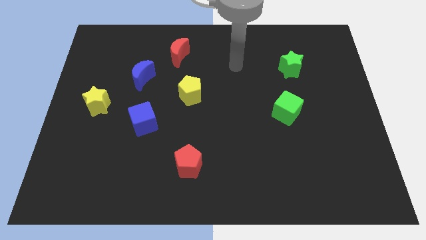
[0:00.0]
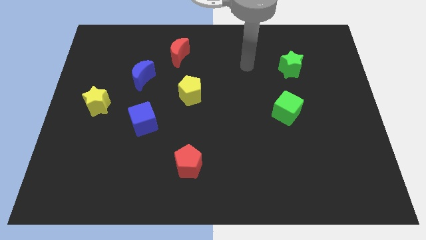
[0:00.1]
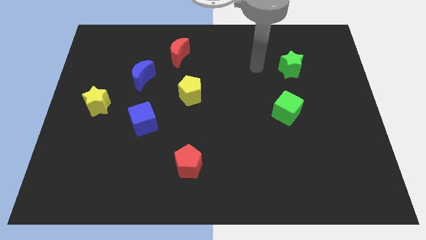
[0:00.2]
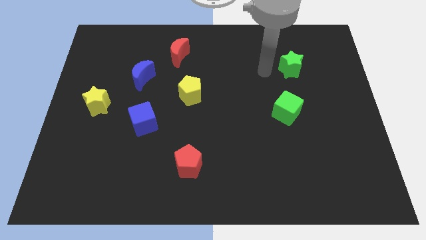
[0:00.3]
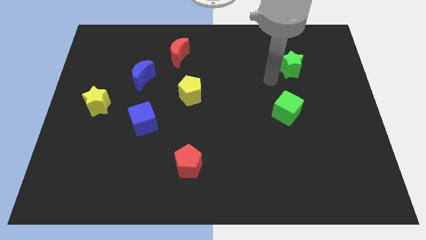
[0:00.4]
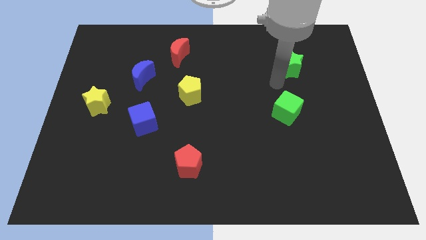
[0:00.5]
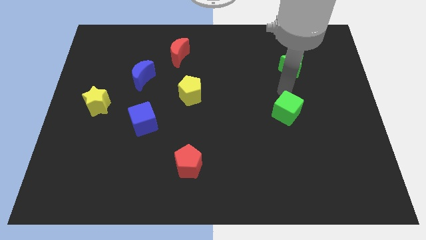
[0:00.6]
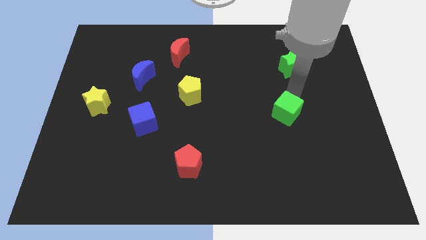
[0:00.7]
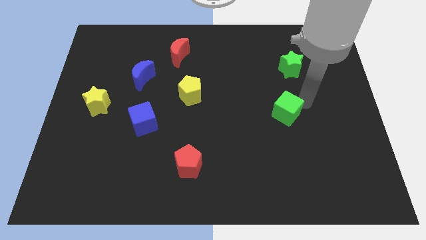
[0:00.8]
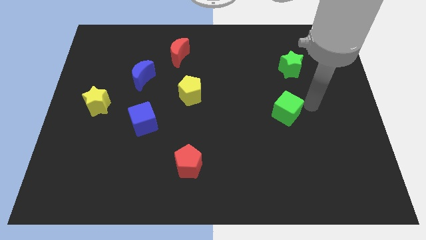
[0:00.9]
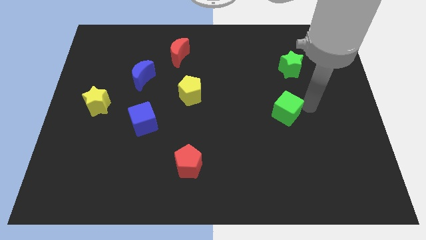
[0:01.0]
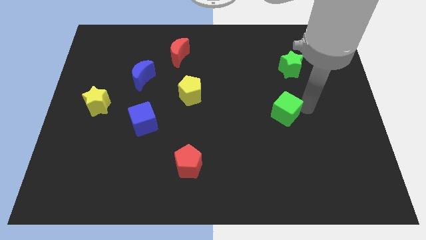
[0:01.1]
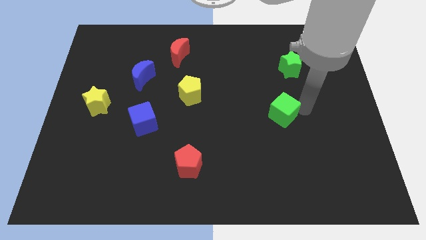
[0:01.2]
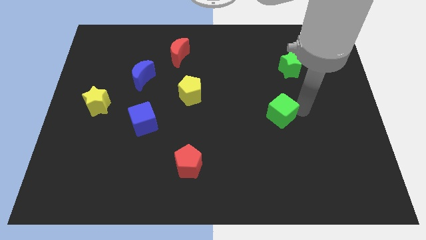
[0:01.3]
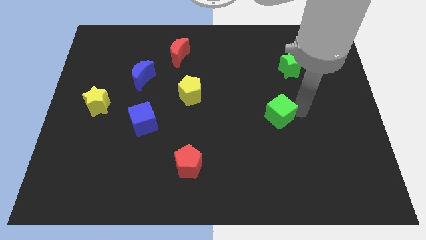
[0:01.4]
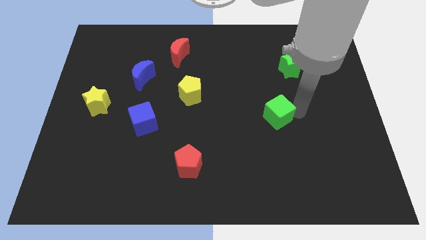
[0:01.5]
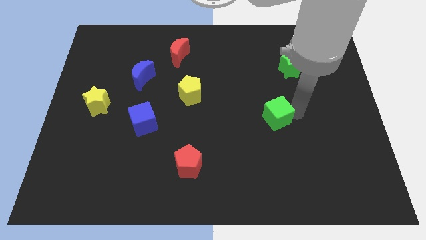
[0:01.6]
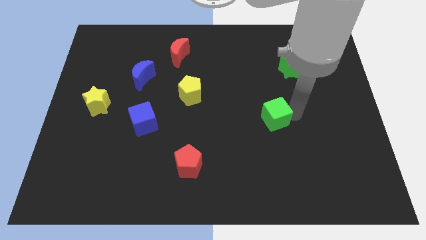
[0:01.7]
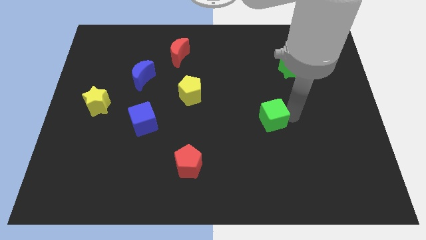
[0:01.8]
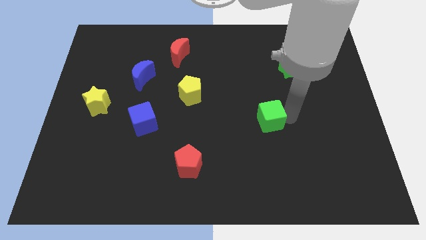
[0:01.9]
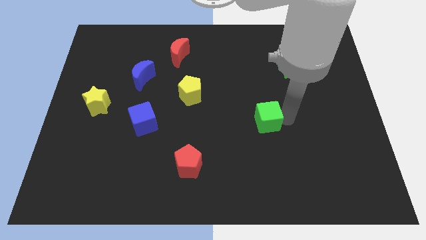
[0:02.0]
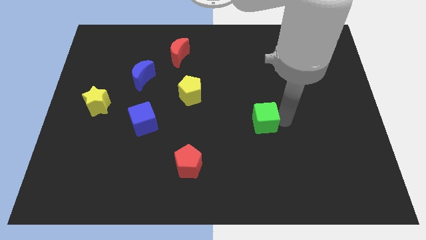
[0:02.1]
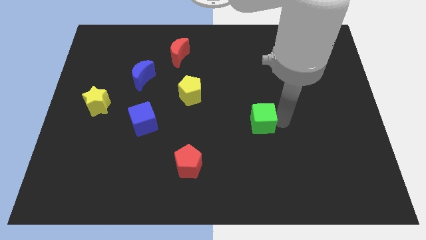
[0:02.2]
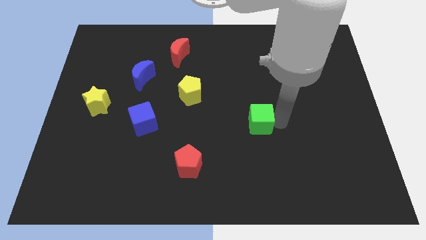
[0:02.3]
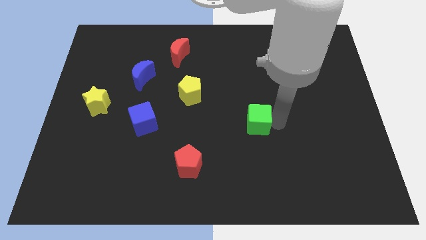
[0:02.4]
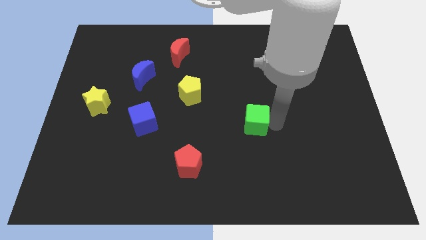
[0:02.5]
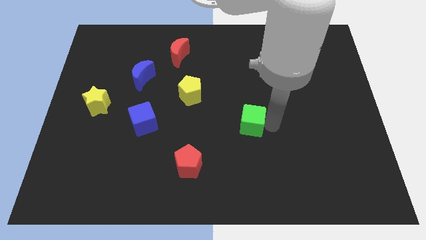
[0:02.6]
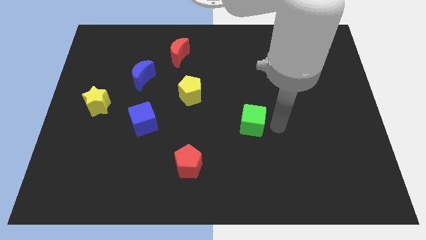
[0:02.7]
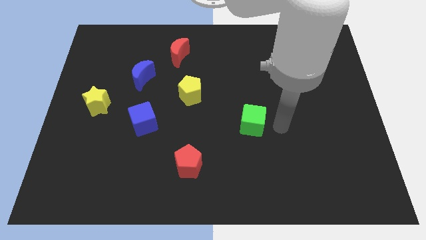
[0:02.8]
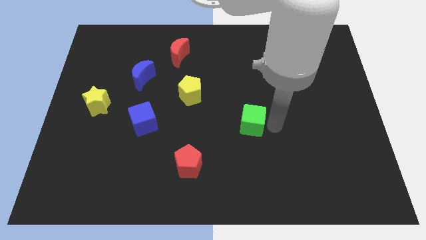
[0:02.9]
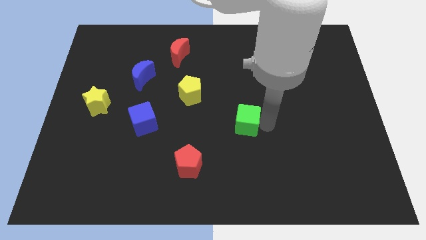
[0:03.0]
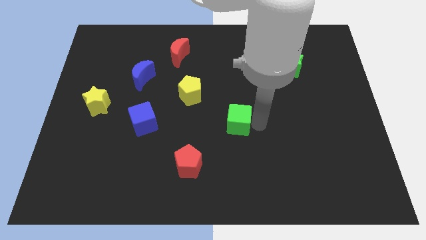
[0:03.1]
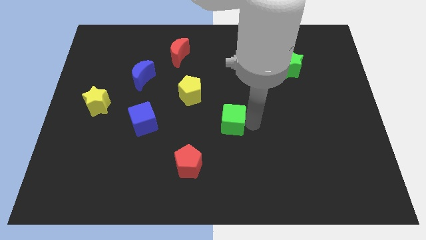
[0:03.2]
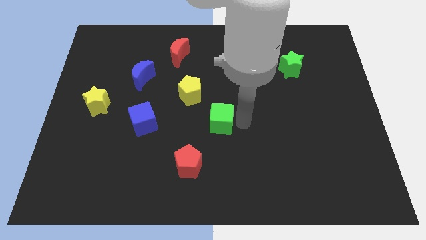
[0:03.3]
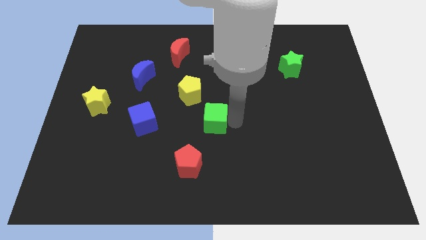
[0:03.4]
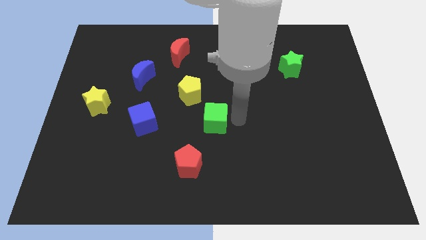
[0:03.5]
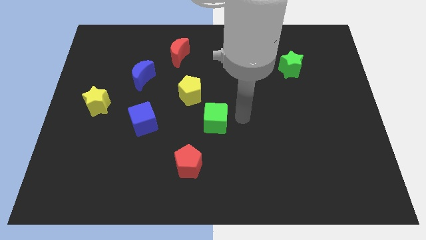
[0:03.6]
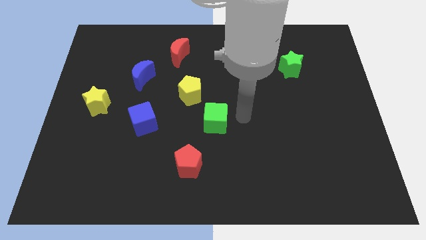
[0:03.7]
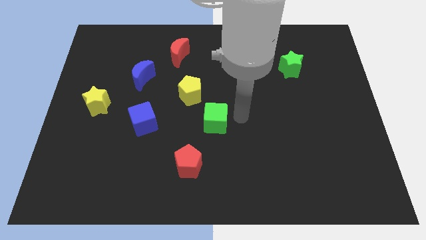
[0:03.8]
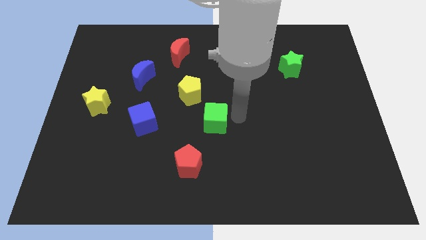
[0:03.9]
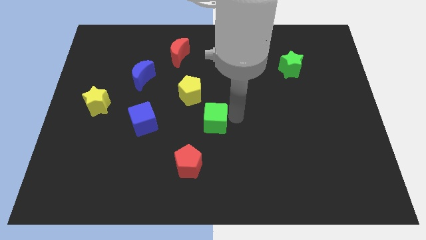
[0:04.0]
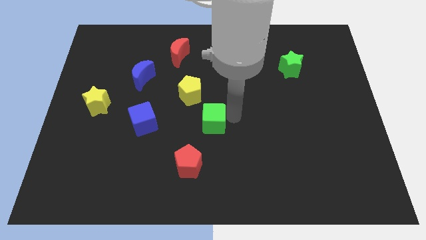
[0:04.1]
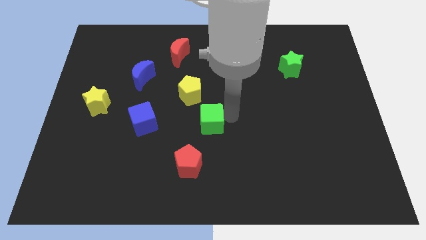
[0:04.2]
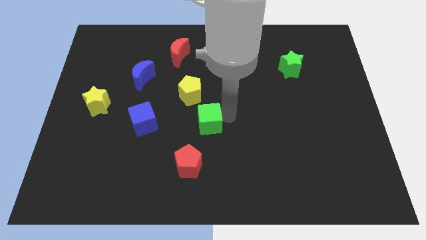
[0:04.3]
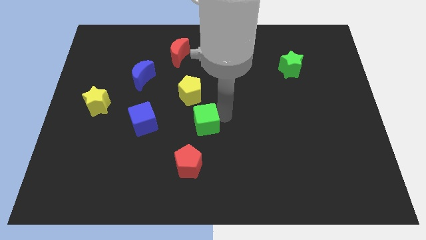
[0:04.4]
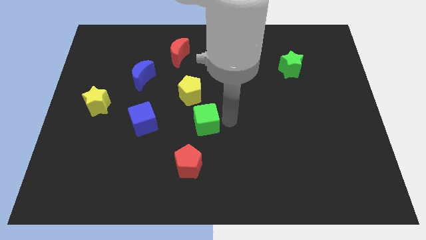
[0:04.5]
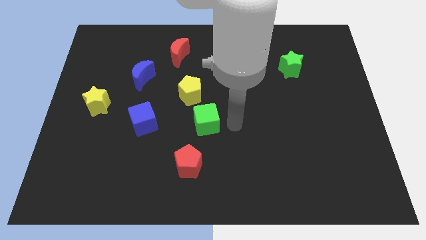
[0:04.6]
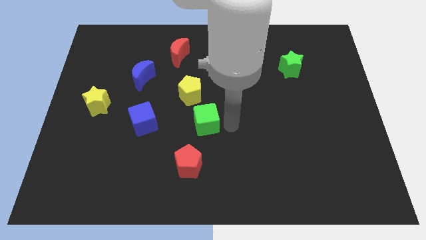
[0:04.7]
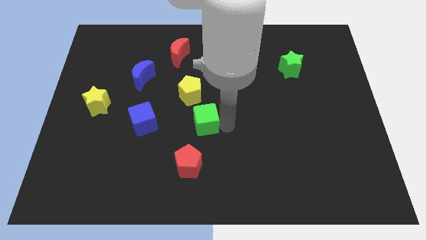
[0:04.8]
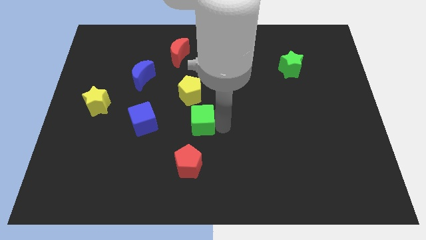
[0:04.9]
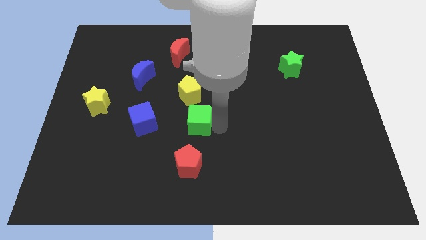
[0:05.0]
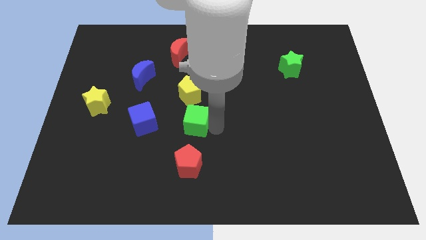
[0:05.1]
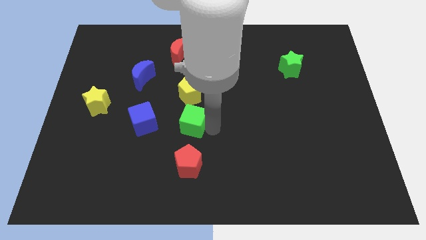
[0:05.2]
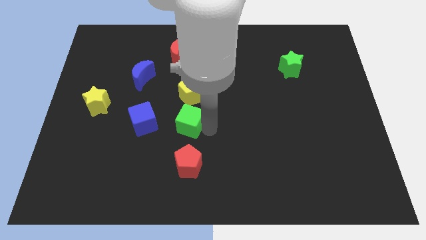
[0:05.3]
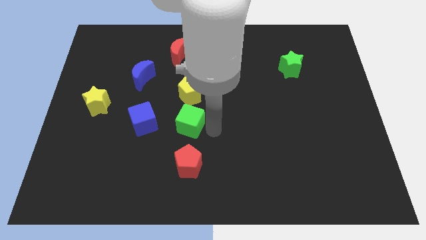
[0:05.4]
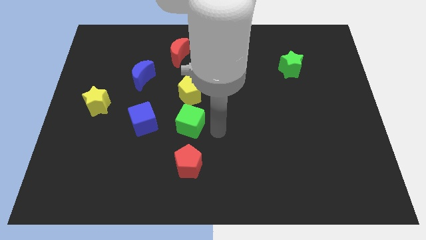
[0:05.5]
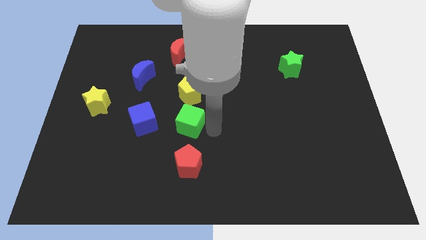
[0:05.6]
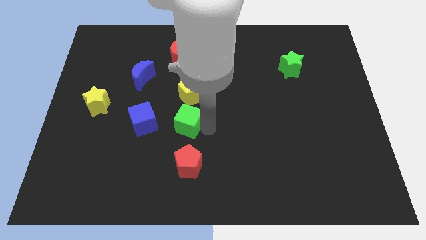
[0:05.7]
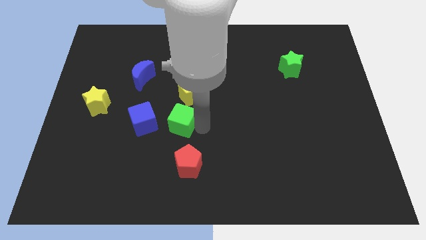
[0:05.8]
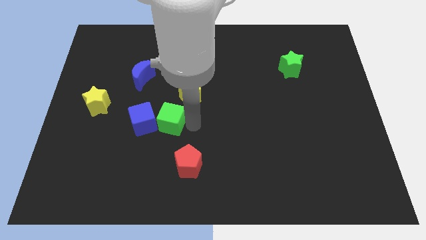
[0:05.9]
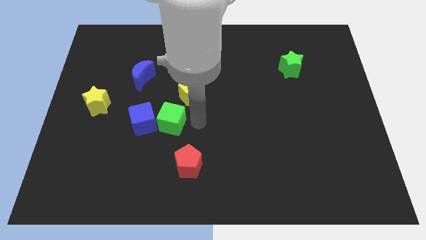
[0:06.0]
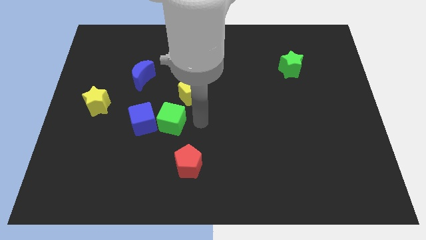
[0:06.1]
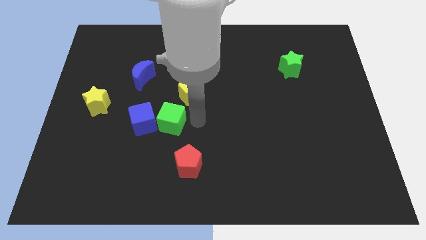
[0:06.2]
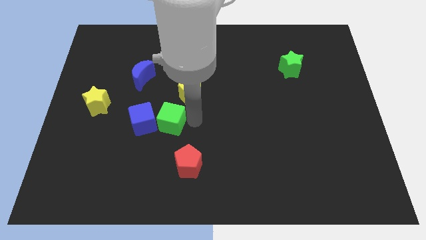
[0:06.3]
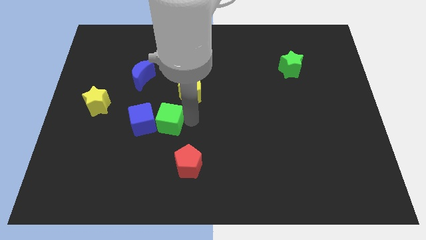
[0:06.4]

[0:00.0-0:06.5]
slide the green cube to the blue cube

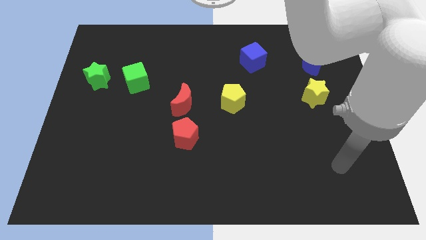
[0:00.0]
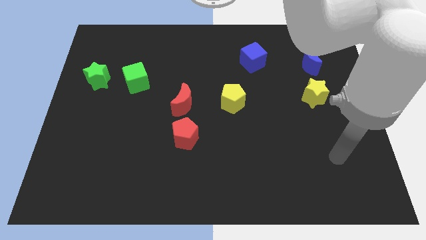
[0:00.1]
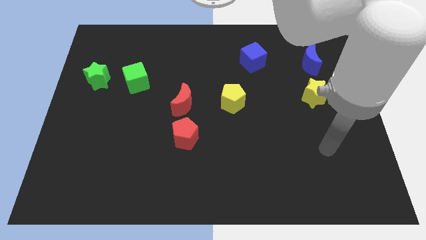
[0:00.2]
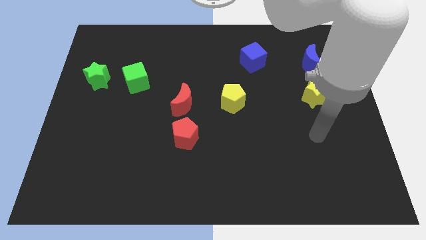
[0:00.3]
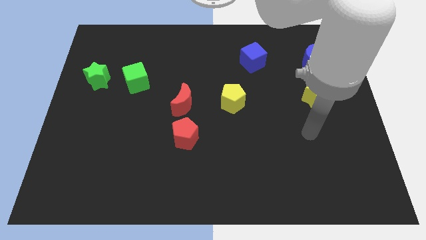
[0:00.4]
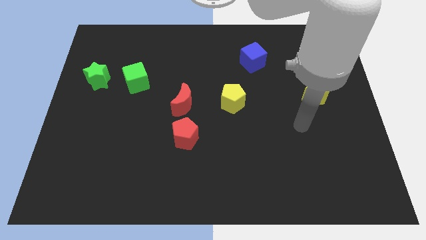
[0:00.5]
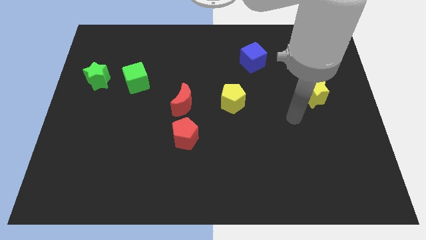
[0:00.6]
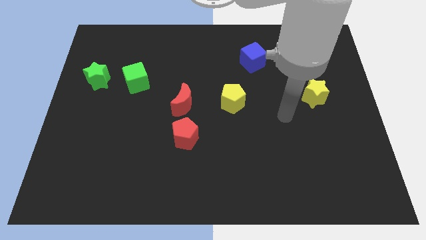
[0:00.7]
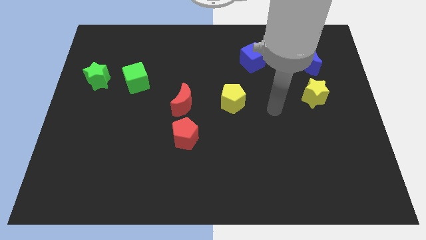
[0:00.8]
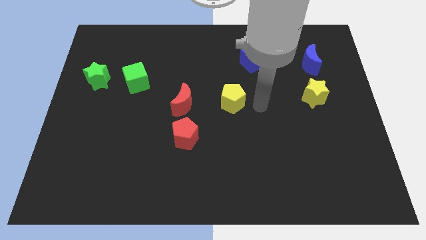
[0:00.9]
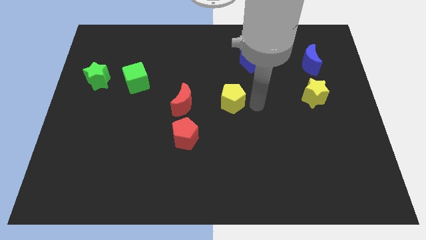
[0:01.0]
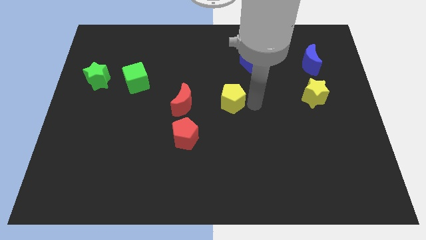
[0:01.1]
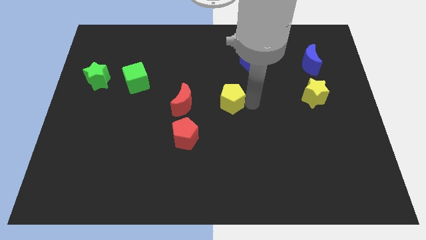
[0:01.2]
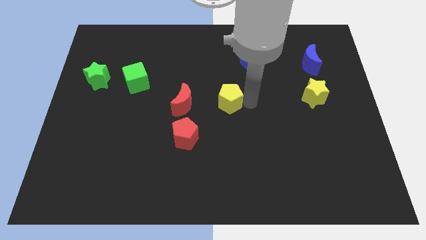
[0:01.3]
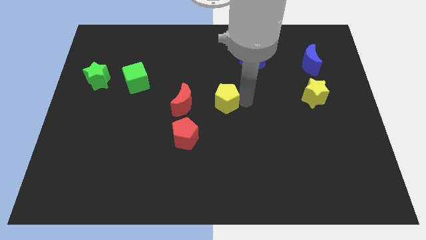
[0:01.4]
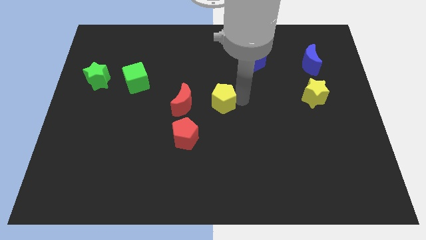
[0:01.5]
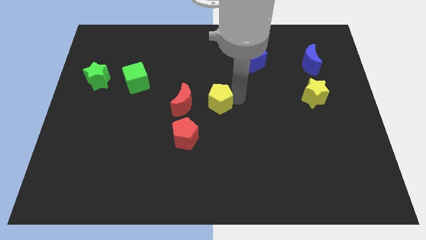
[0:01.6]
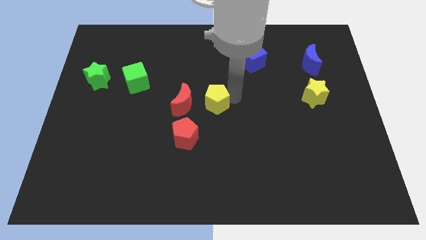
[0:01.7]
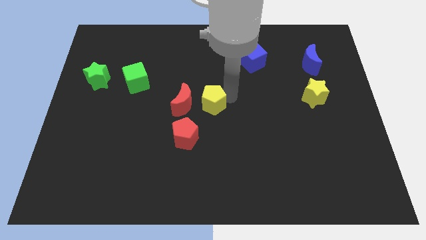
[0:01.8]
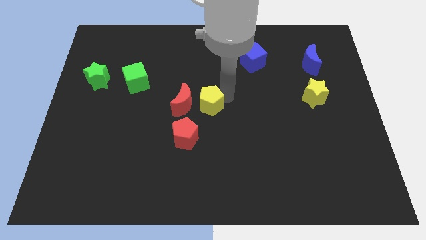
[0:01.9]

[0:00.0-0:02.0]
move the yellow pentagon to the red moon
